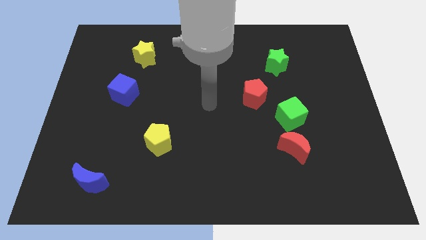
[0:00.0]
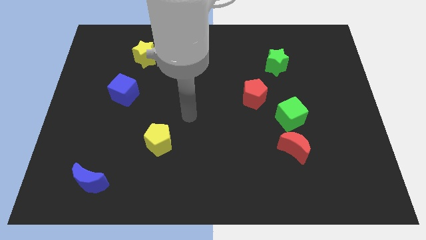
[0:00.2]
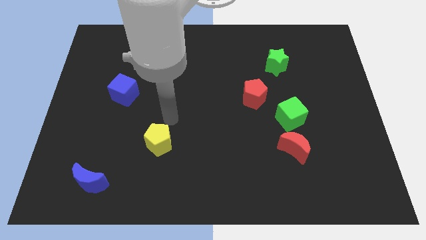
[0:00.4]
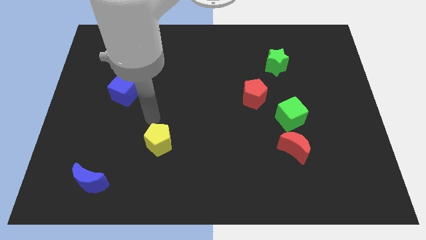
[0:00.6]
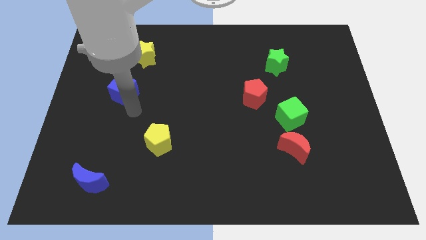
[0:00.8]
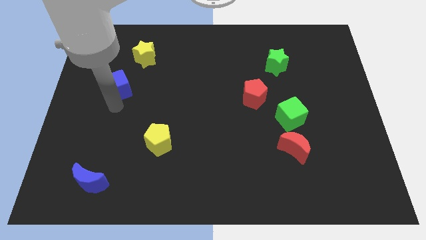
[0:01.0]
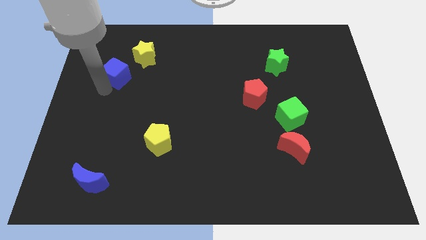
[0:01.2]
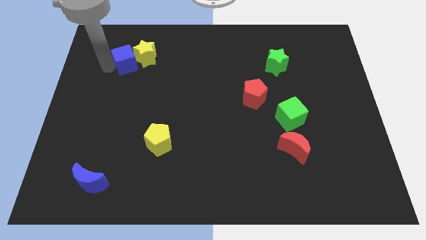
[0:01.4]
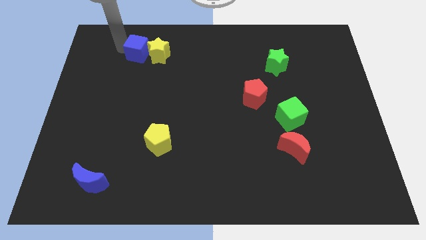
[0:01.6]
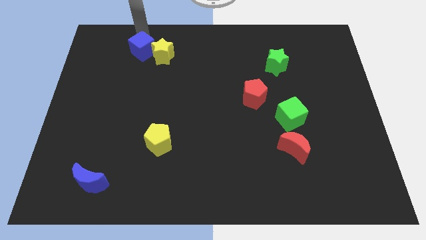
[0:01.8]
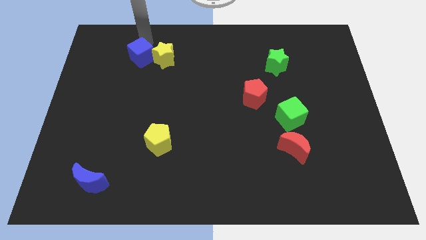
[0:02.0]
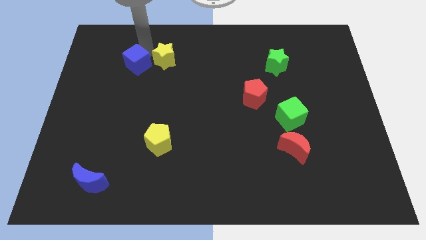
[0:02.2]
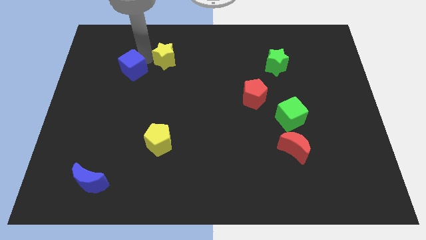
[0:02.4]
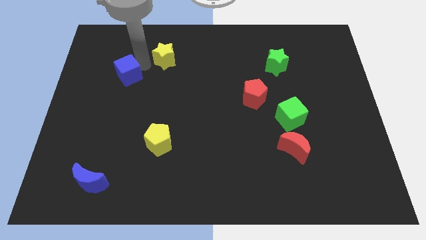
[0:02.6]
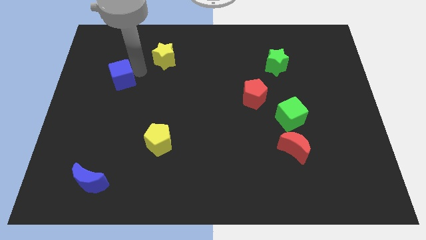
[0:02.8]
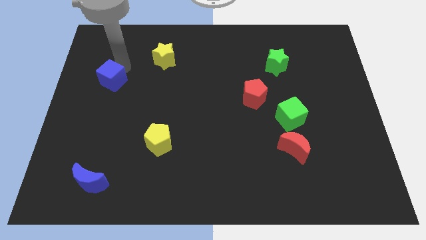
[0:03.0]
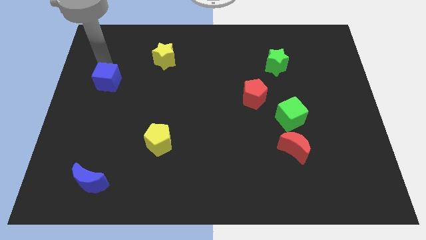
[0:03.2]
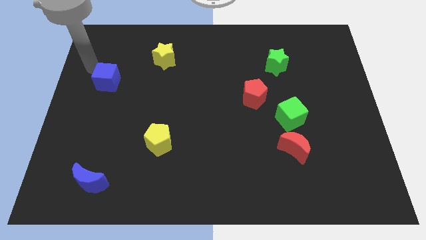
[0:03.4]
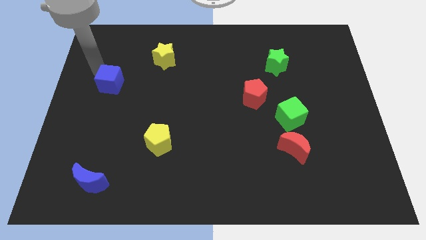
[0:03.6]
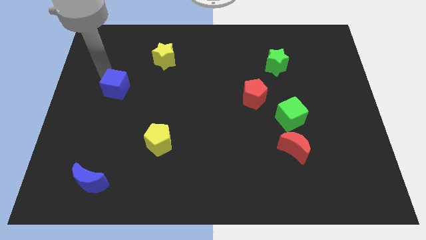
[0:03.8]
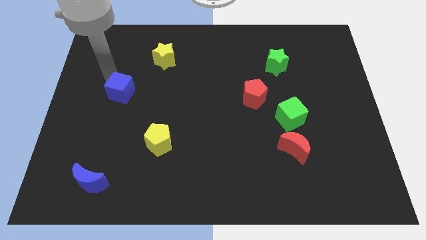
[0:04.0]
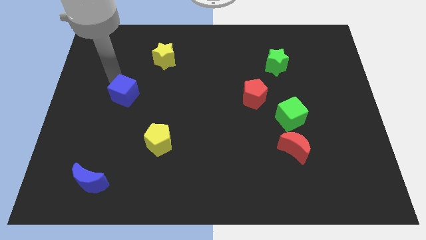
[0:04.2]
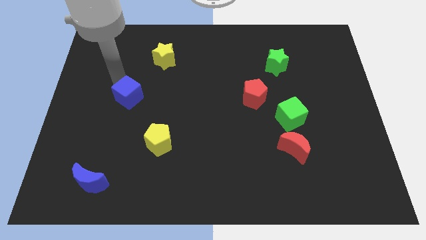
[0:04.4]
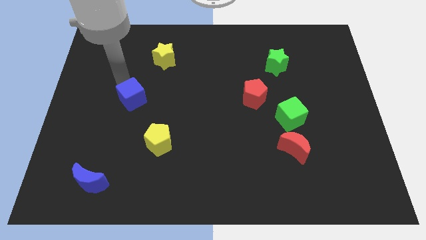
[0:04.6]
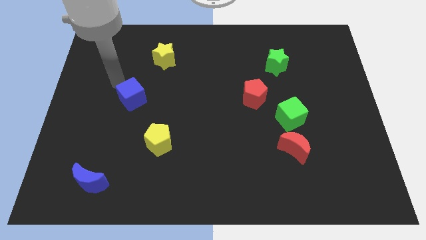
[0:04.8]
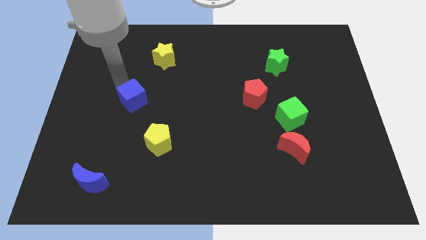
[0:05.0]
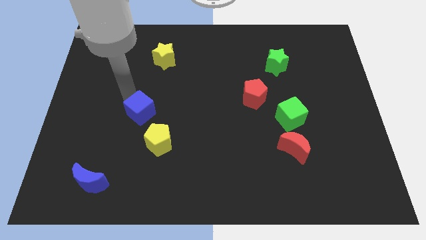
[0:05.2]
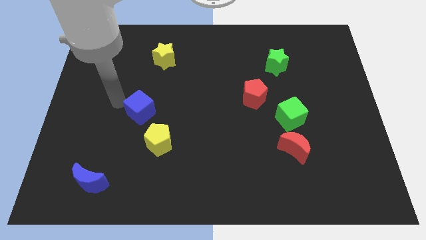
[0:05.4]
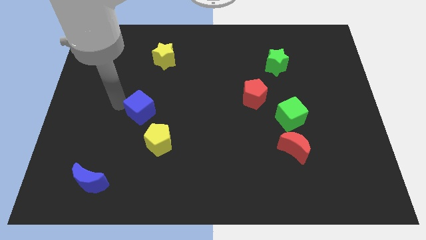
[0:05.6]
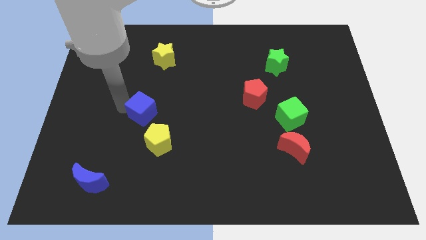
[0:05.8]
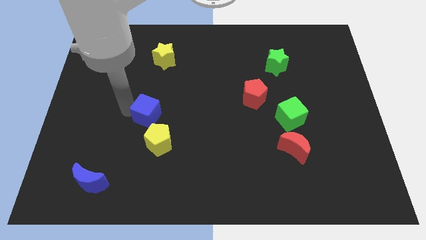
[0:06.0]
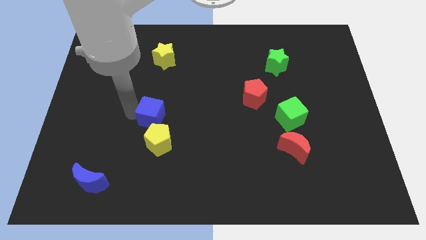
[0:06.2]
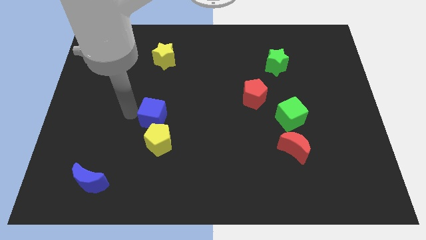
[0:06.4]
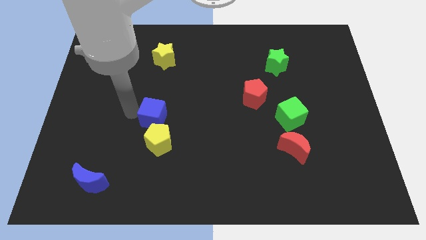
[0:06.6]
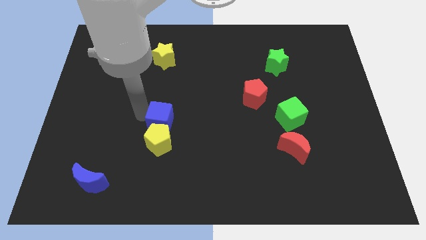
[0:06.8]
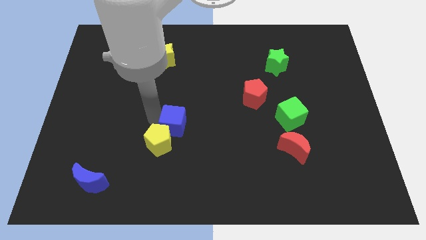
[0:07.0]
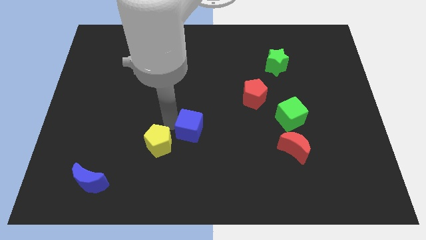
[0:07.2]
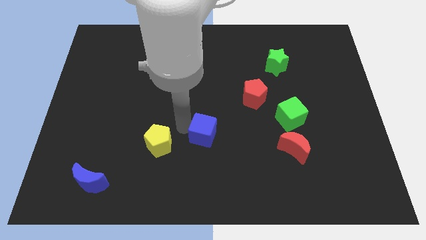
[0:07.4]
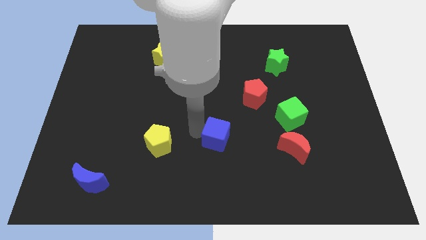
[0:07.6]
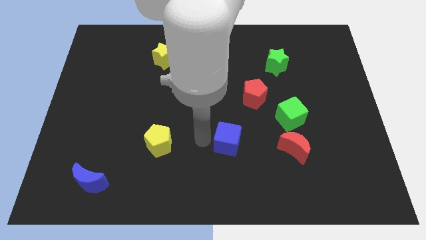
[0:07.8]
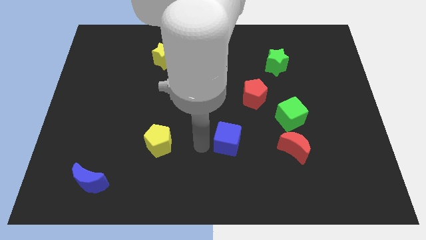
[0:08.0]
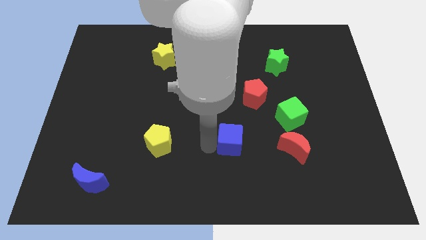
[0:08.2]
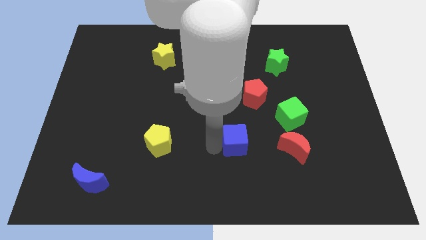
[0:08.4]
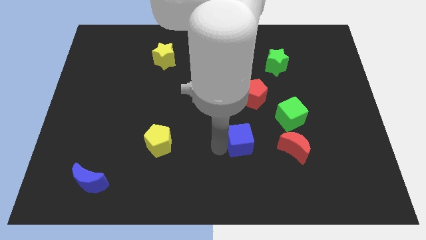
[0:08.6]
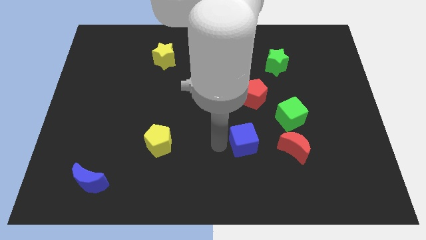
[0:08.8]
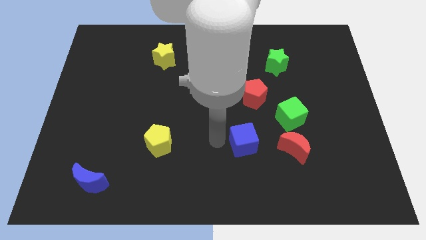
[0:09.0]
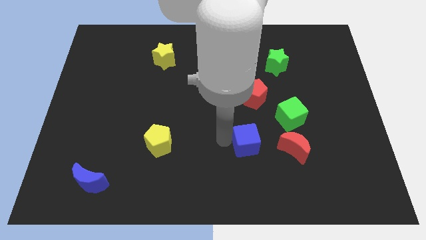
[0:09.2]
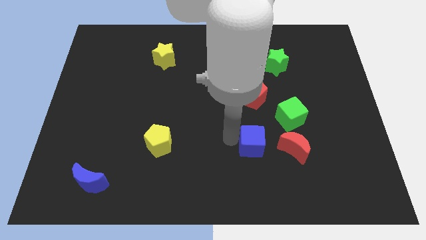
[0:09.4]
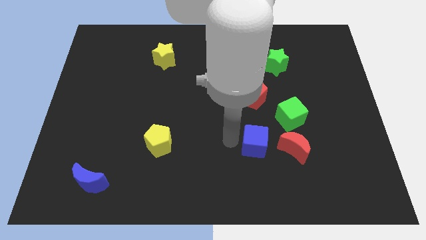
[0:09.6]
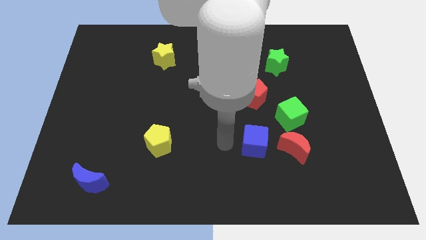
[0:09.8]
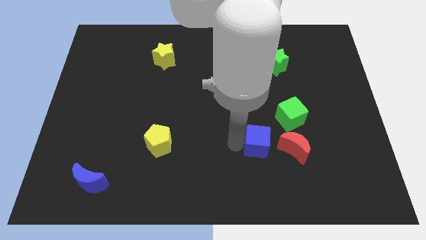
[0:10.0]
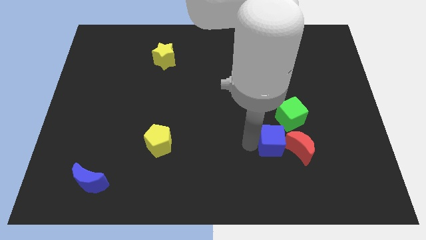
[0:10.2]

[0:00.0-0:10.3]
slide the blue cube towards the red moon
